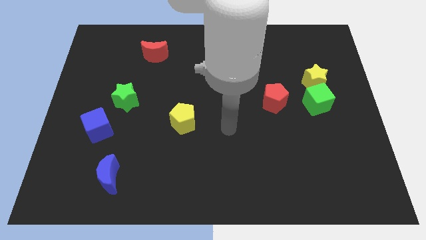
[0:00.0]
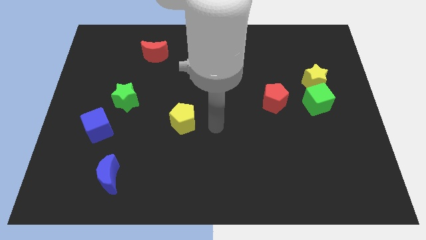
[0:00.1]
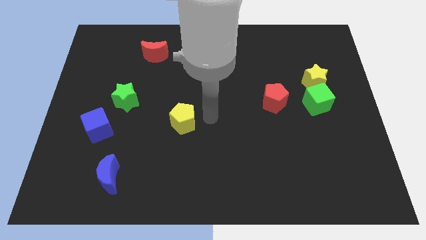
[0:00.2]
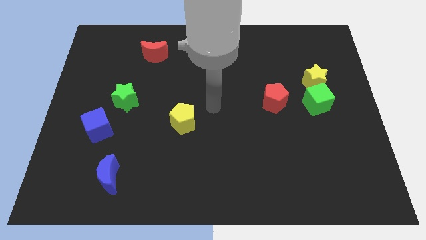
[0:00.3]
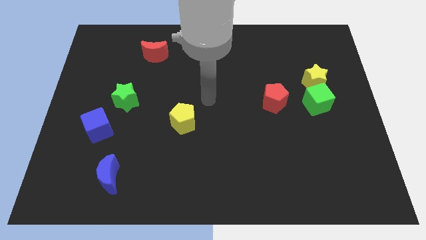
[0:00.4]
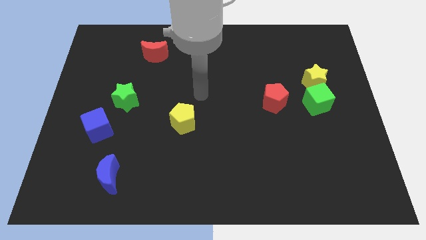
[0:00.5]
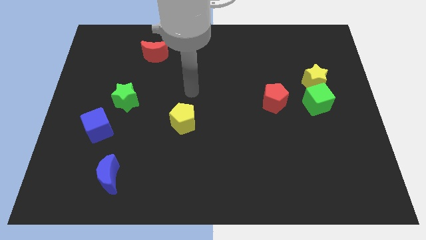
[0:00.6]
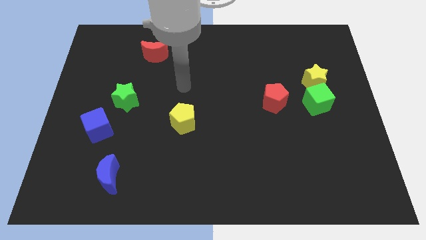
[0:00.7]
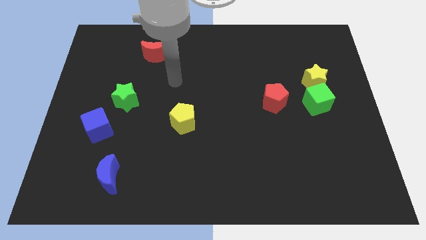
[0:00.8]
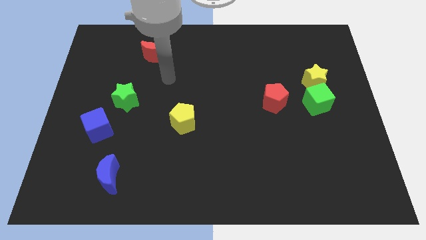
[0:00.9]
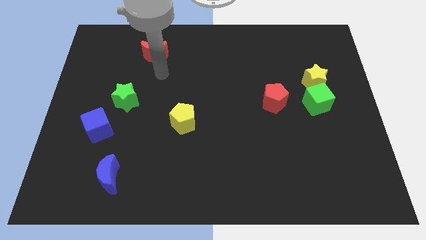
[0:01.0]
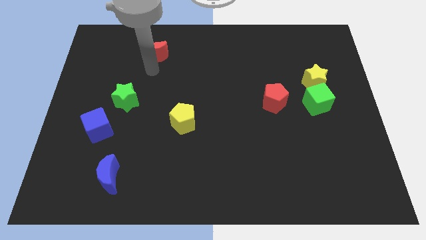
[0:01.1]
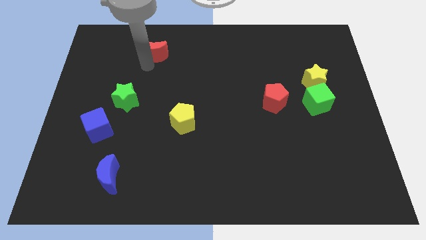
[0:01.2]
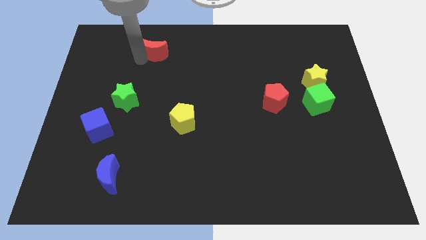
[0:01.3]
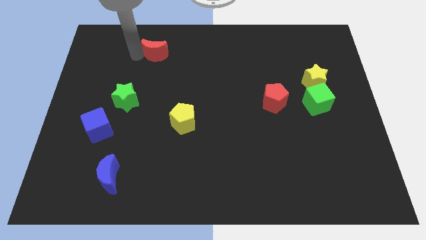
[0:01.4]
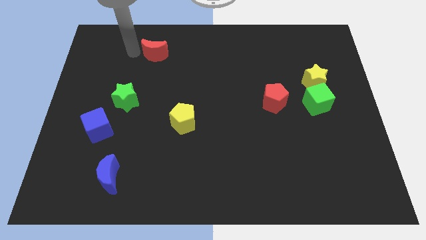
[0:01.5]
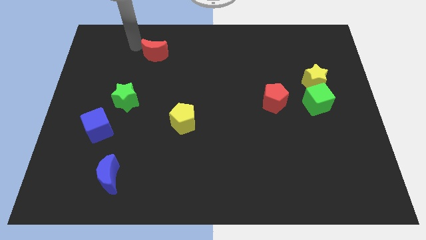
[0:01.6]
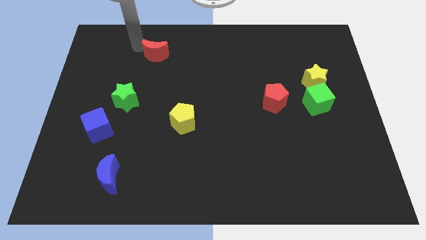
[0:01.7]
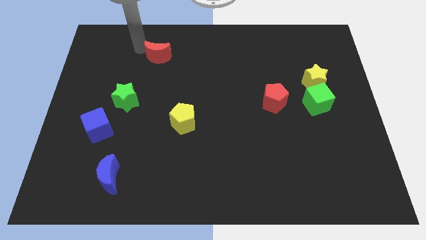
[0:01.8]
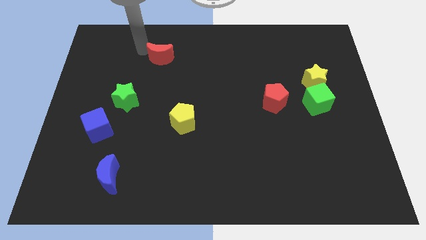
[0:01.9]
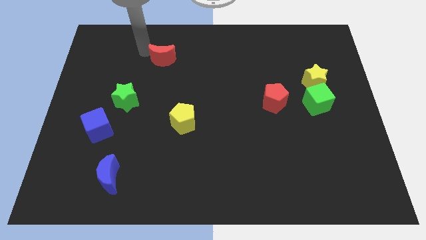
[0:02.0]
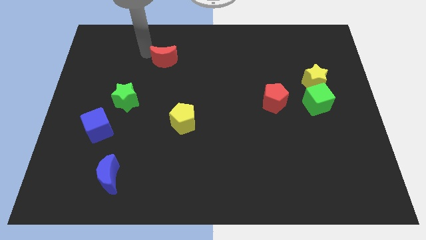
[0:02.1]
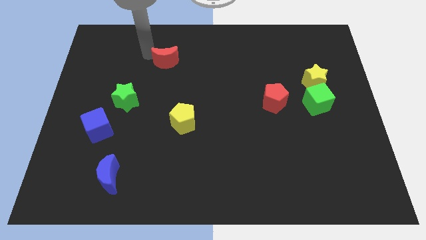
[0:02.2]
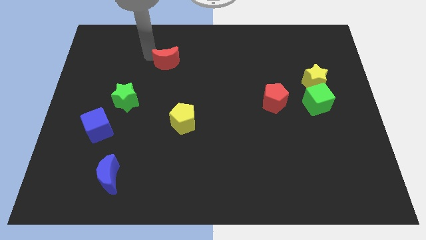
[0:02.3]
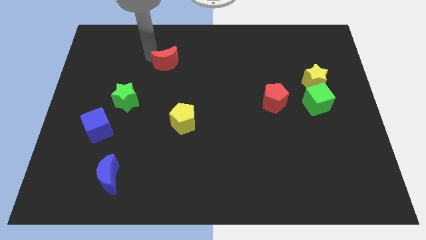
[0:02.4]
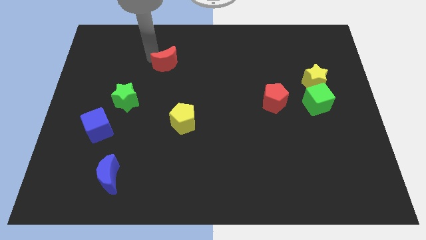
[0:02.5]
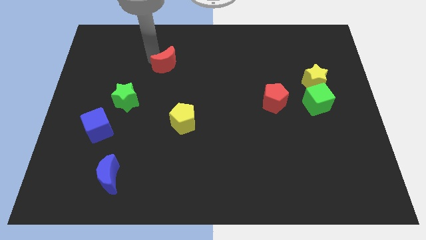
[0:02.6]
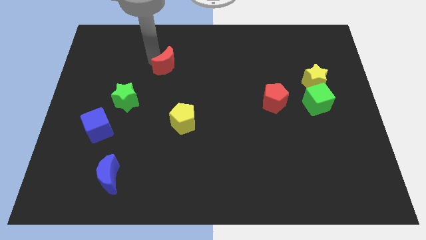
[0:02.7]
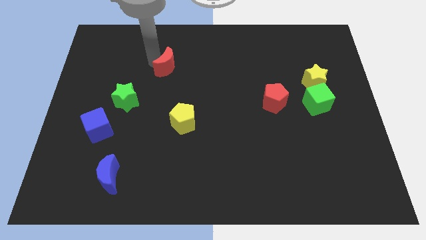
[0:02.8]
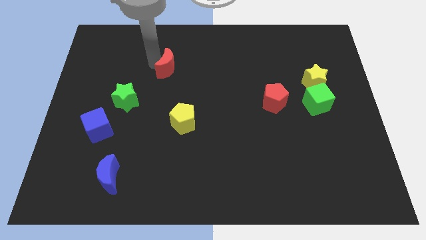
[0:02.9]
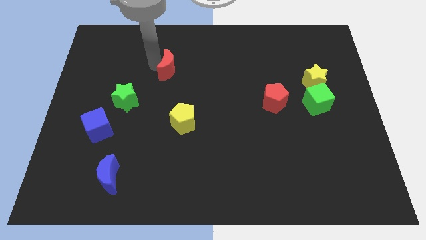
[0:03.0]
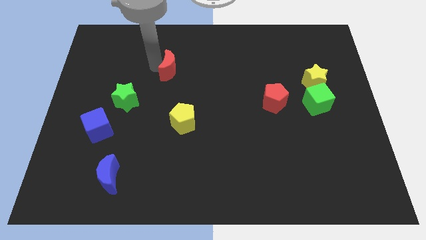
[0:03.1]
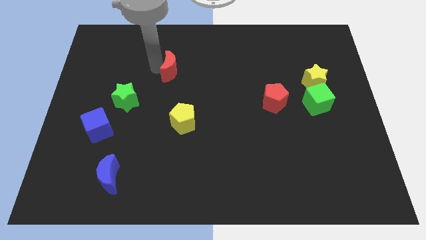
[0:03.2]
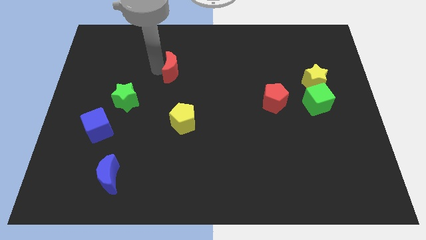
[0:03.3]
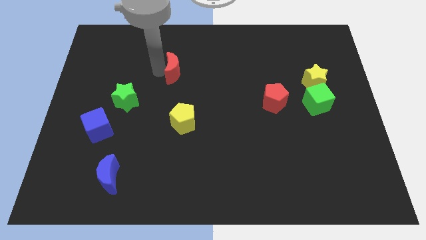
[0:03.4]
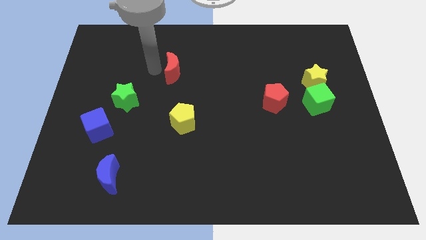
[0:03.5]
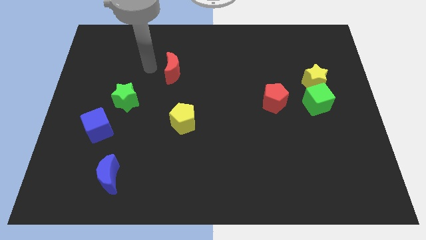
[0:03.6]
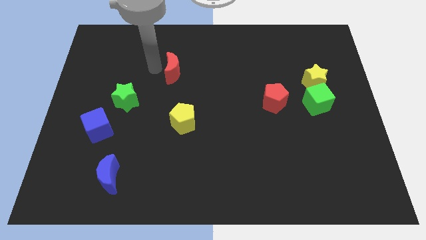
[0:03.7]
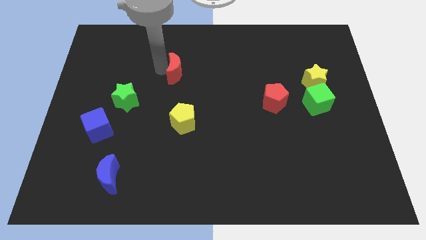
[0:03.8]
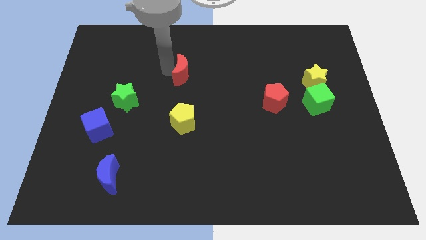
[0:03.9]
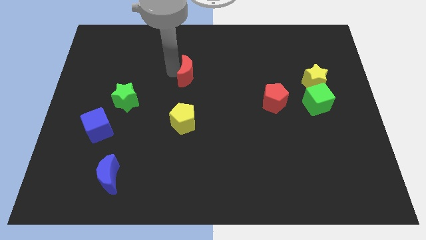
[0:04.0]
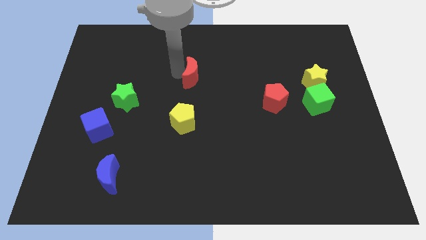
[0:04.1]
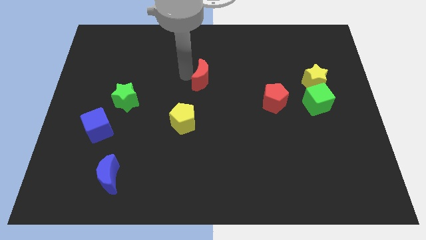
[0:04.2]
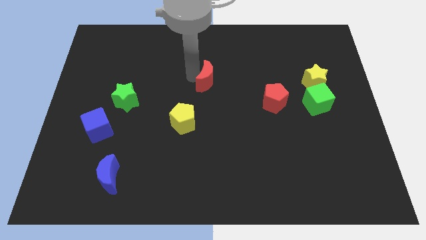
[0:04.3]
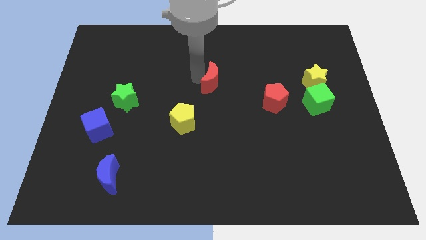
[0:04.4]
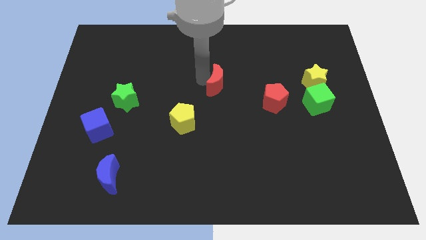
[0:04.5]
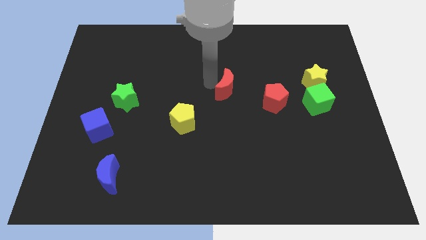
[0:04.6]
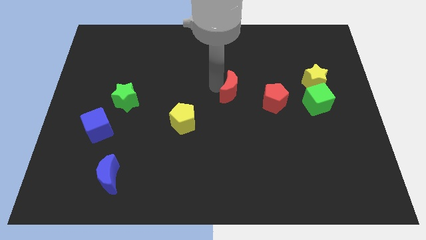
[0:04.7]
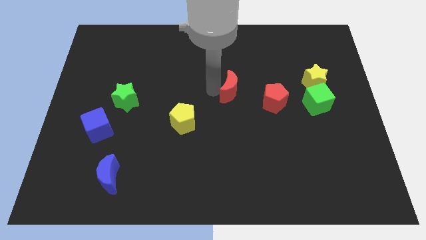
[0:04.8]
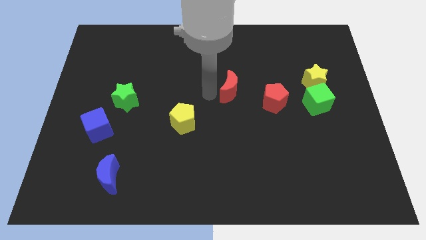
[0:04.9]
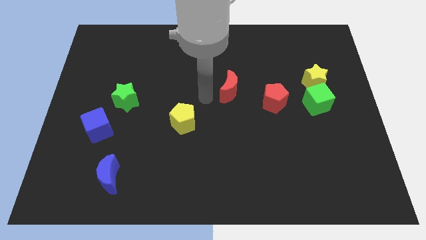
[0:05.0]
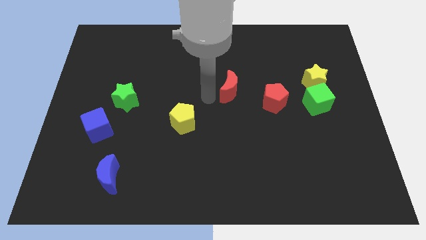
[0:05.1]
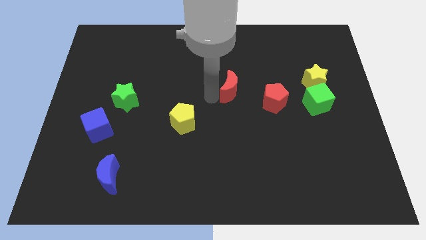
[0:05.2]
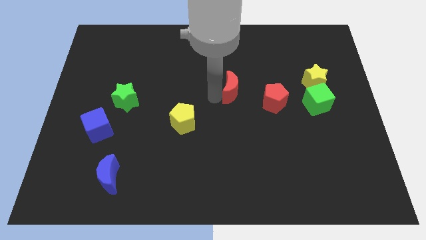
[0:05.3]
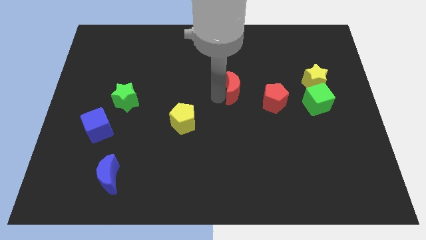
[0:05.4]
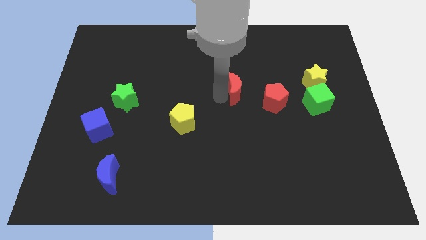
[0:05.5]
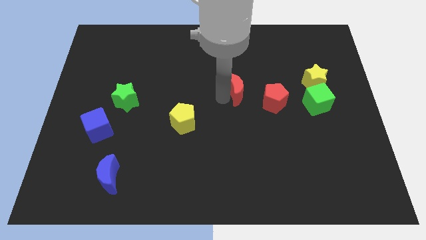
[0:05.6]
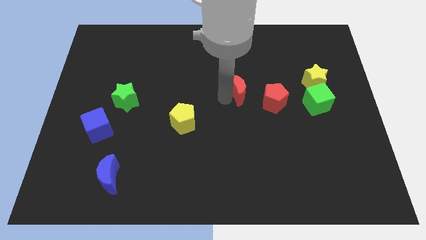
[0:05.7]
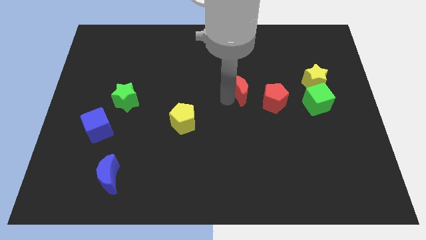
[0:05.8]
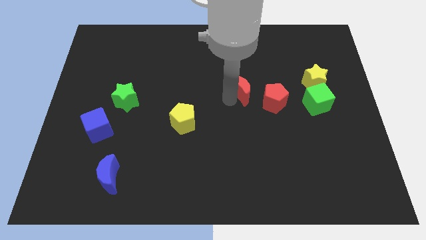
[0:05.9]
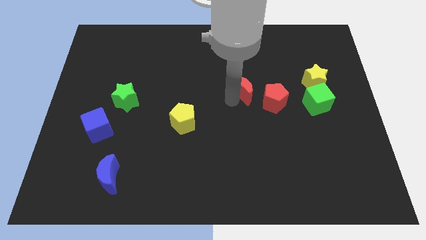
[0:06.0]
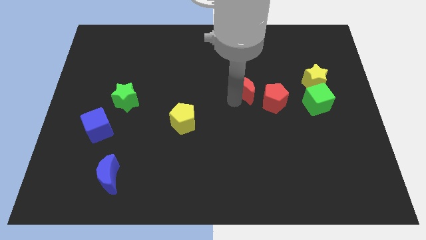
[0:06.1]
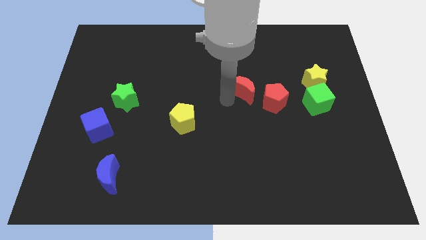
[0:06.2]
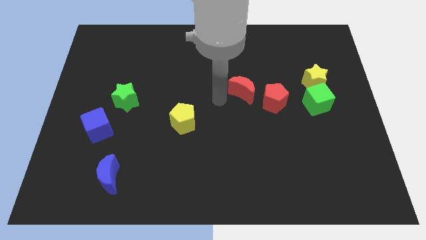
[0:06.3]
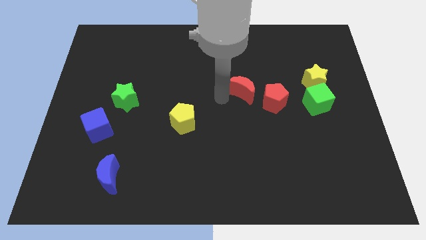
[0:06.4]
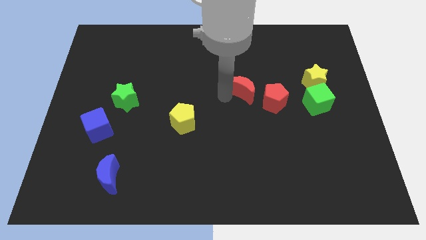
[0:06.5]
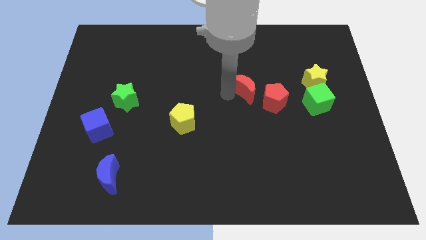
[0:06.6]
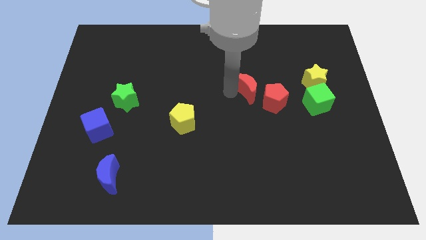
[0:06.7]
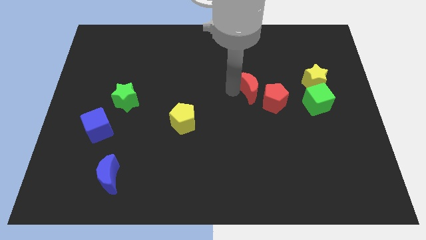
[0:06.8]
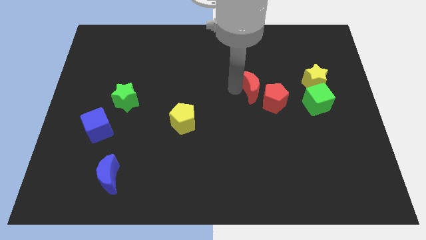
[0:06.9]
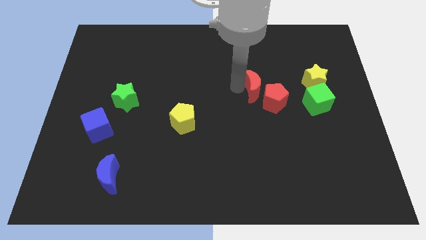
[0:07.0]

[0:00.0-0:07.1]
push the red moon just left of the yellow star
